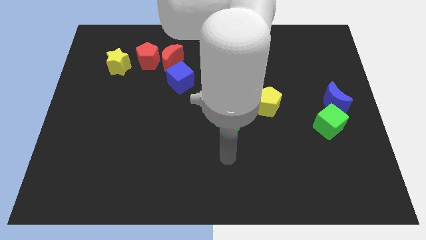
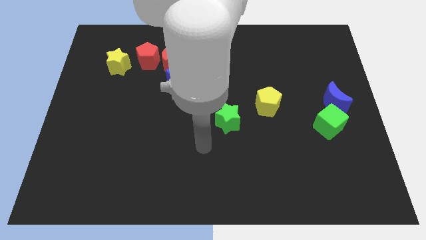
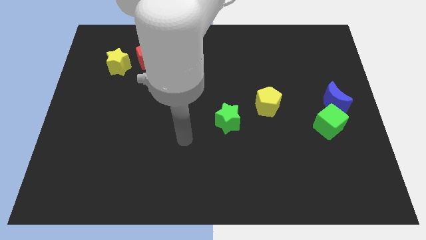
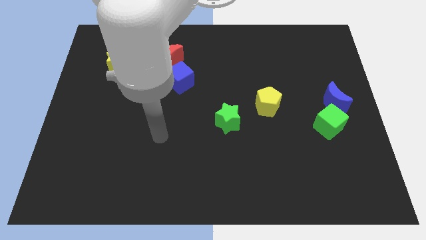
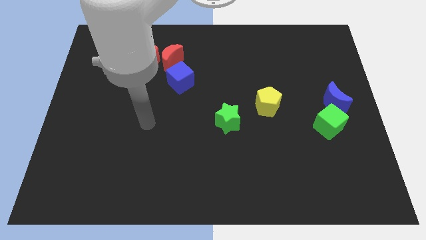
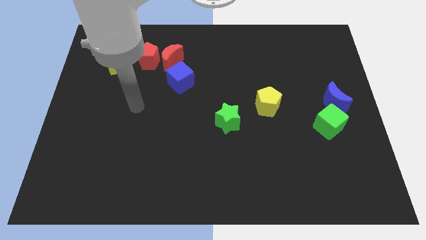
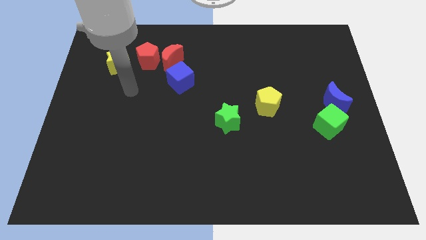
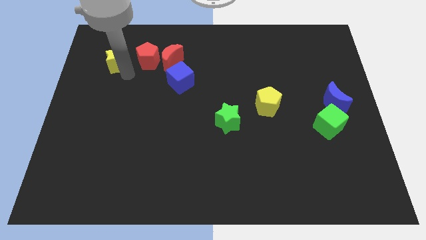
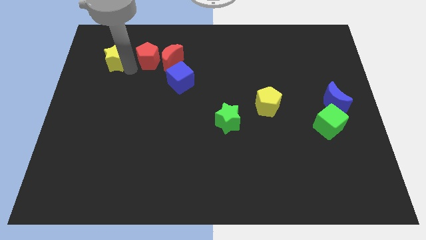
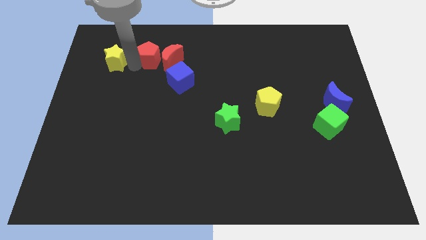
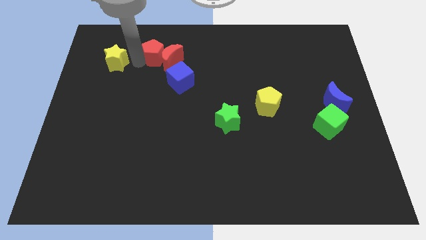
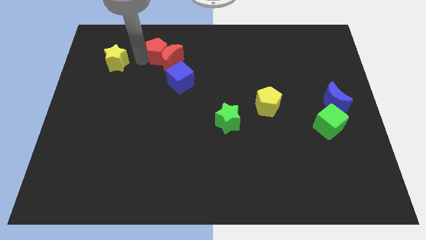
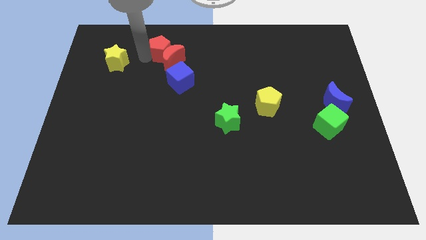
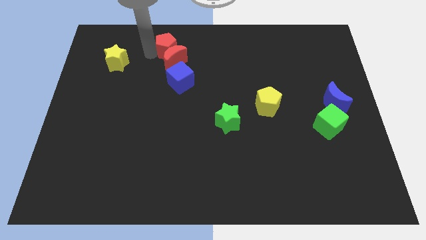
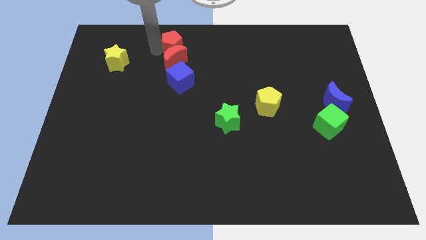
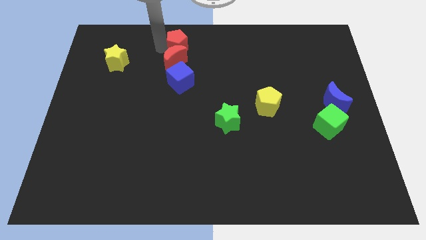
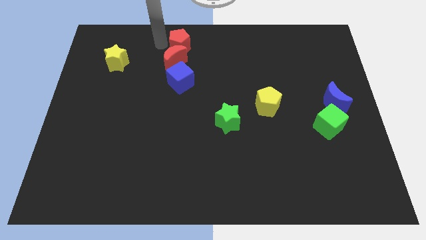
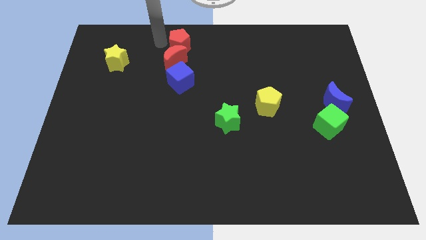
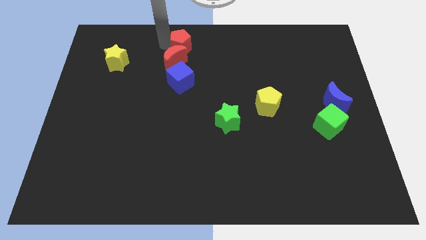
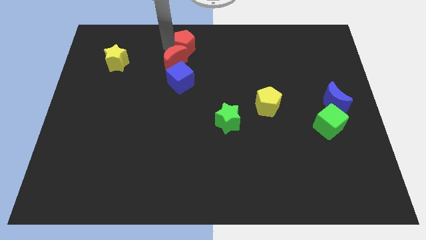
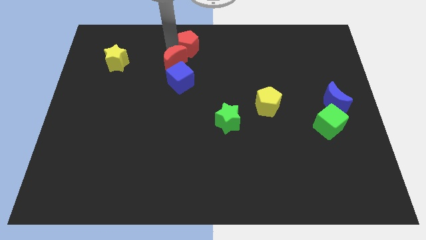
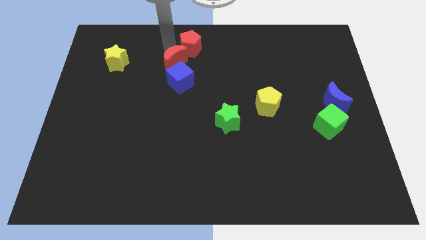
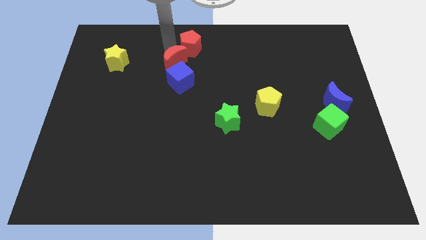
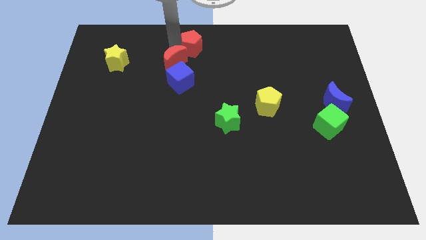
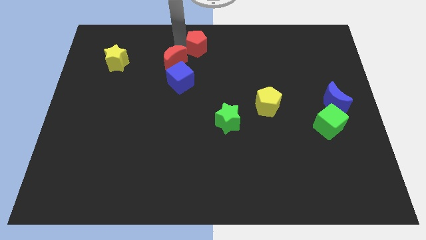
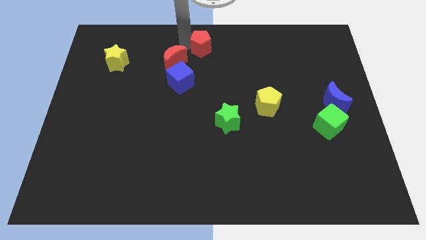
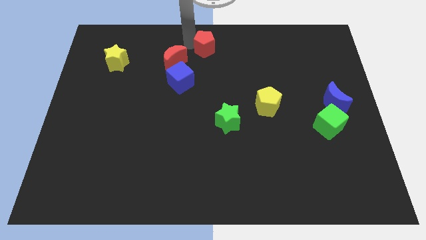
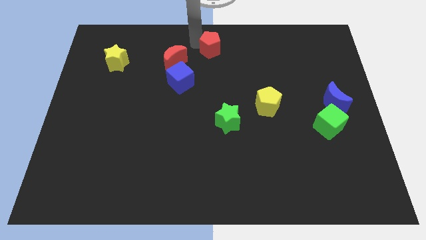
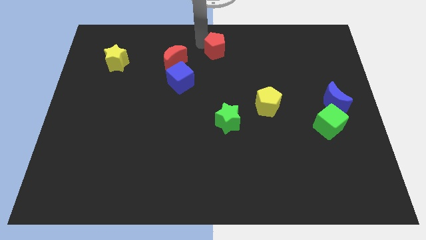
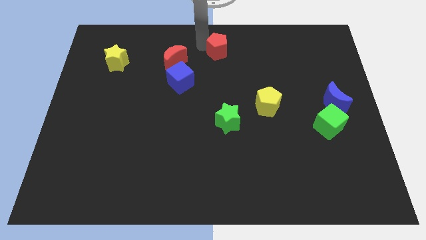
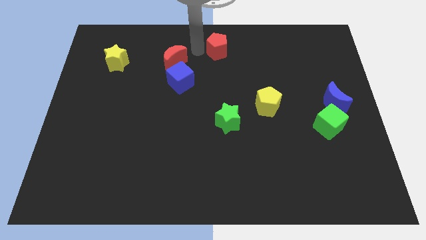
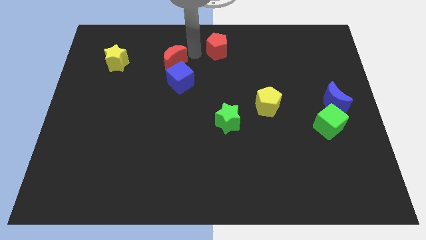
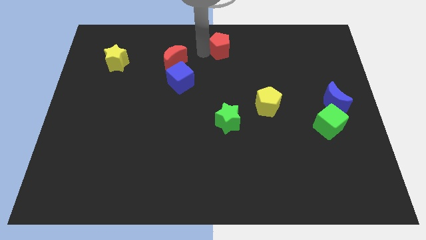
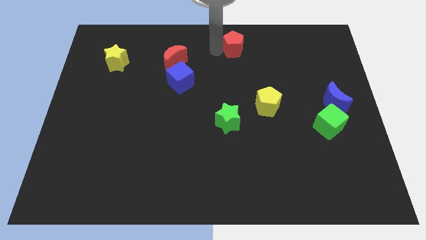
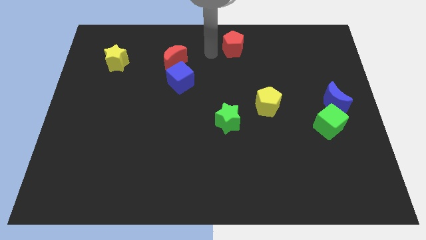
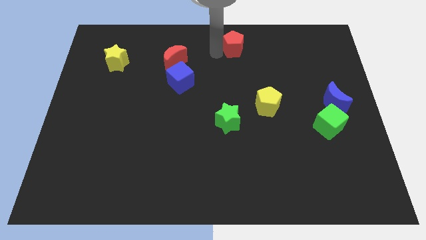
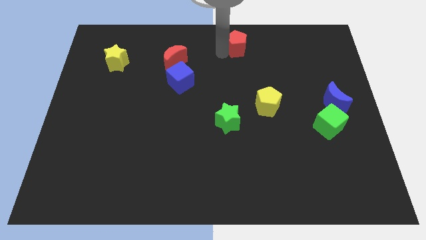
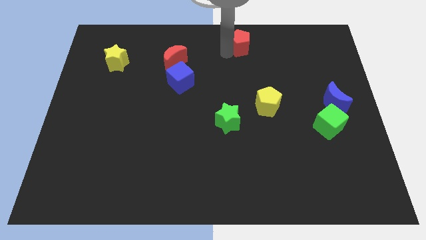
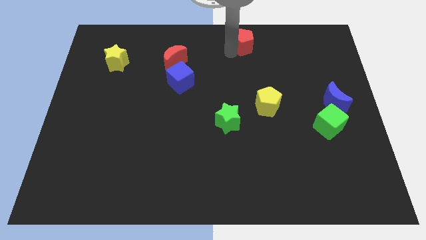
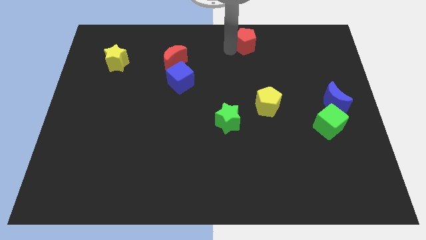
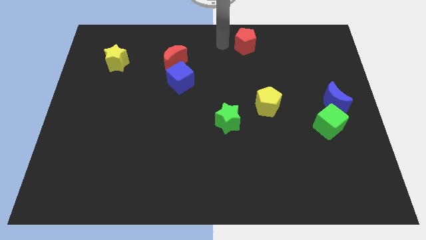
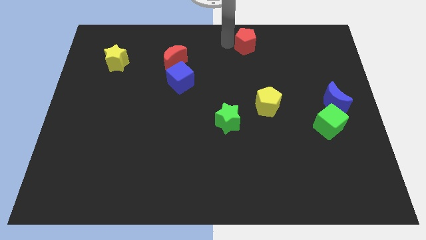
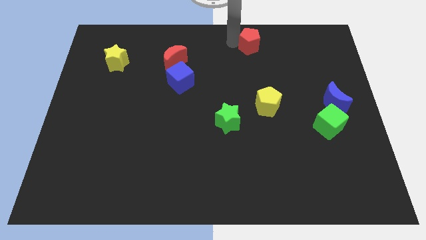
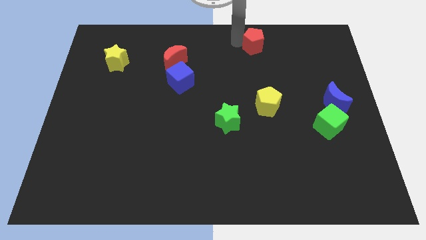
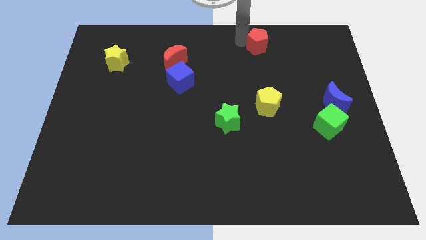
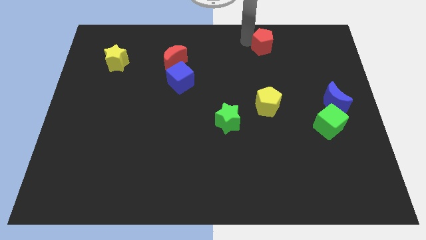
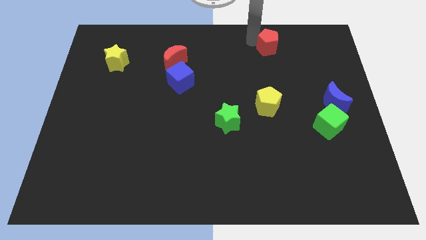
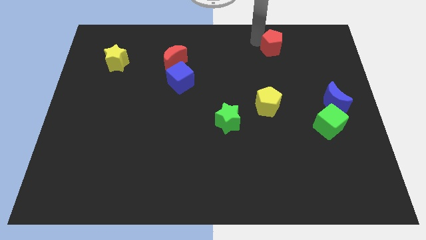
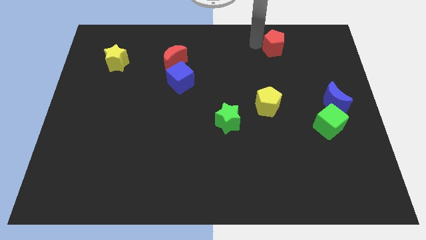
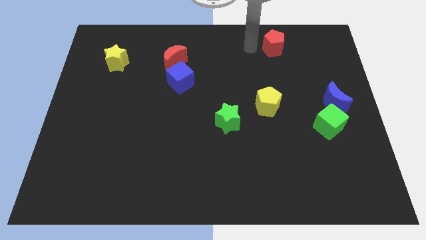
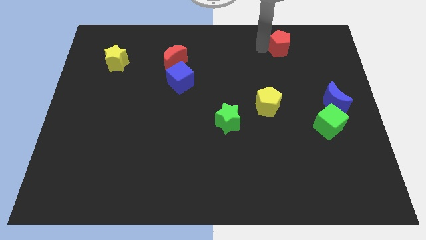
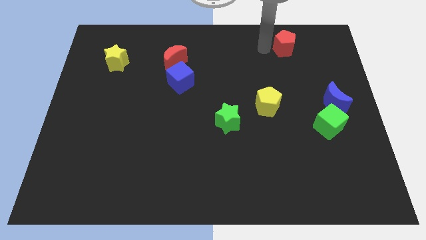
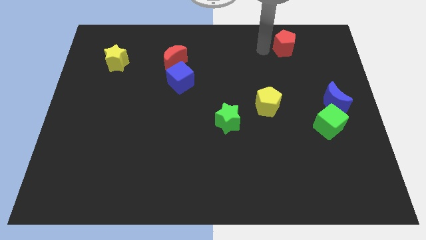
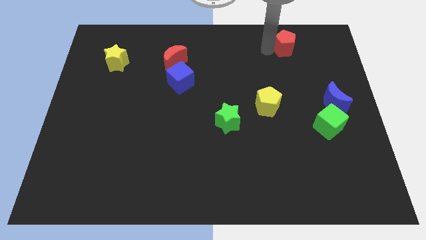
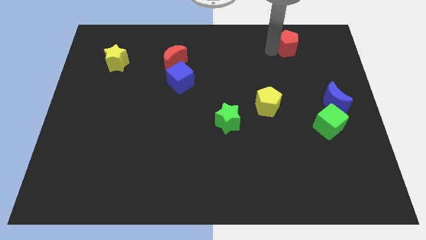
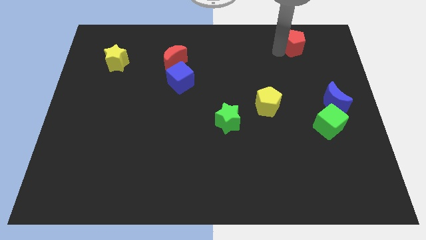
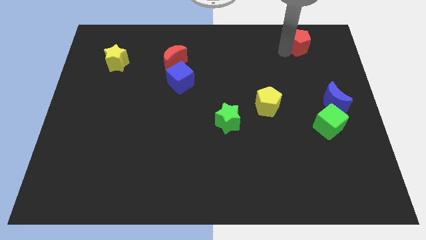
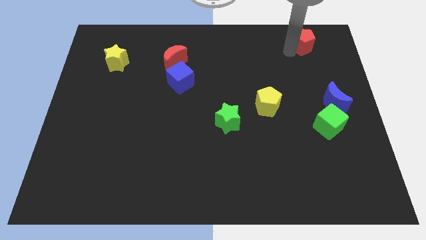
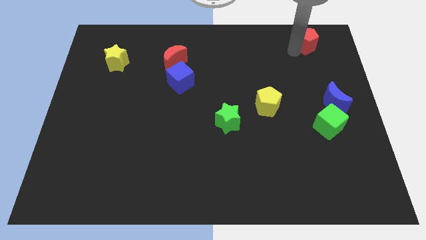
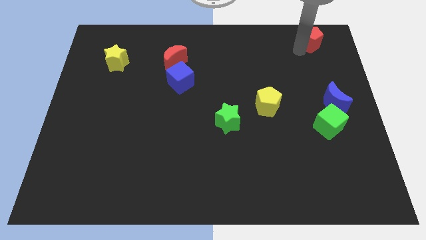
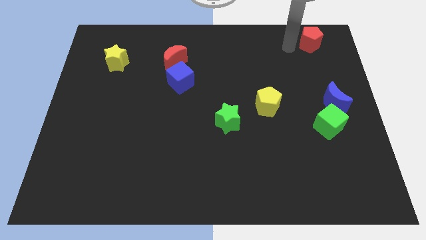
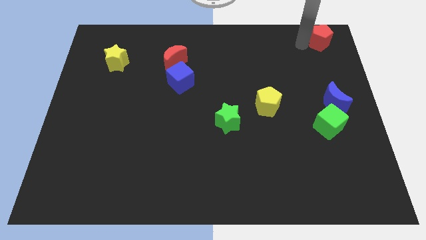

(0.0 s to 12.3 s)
move the red pentagon to the top right of the board
